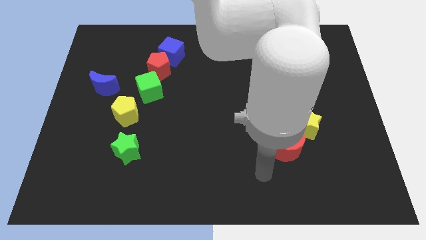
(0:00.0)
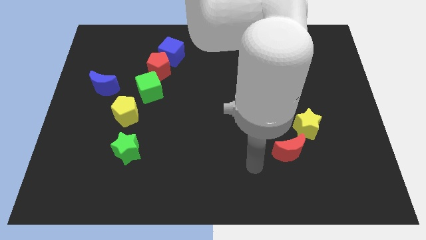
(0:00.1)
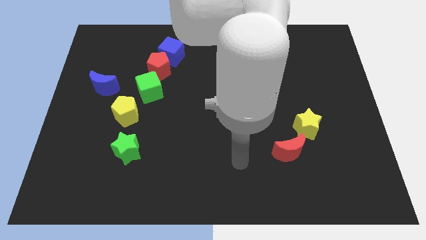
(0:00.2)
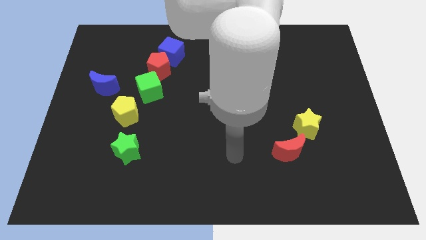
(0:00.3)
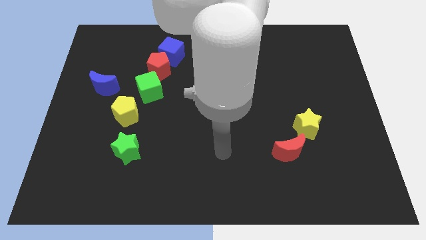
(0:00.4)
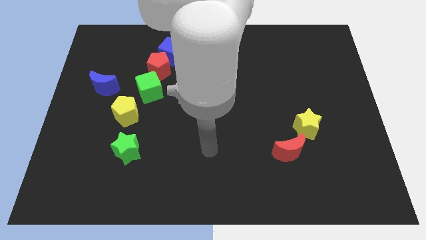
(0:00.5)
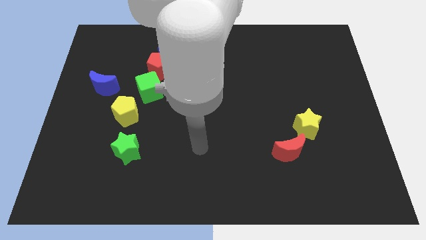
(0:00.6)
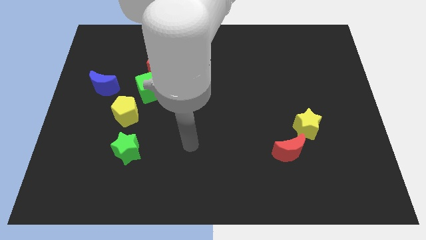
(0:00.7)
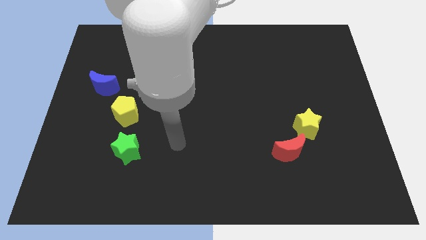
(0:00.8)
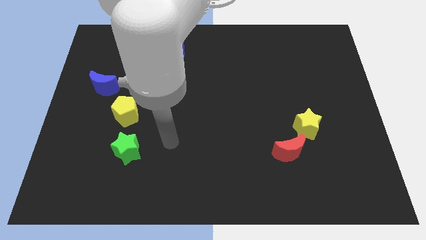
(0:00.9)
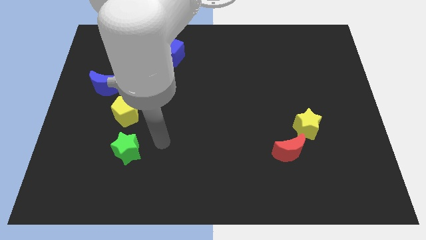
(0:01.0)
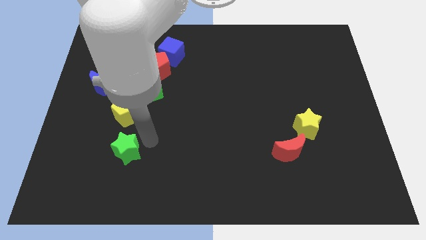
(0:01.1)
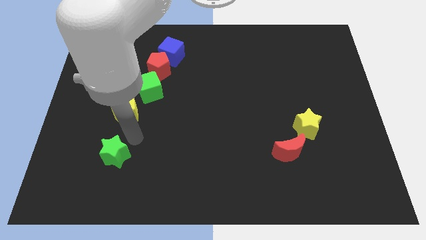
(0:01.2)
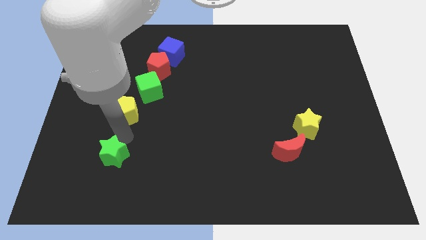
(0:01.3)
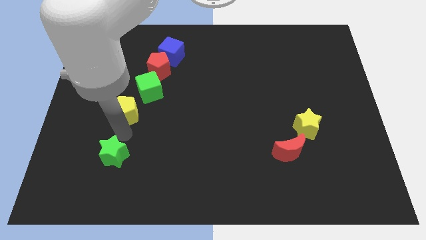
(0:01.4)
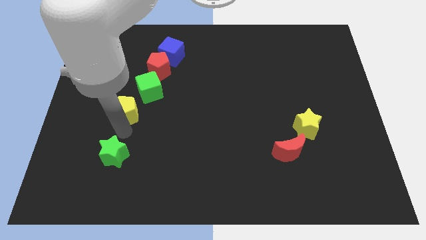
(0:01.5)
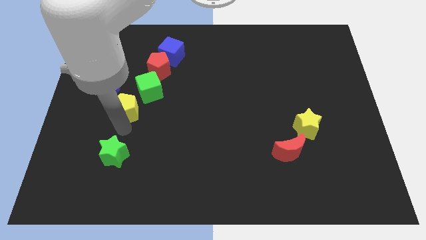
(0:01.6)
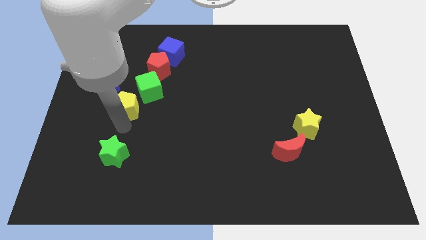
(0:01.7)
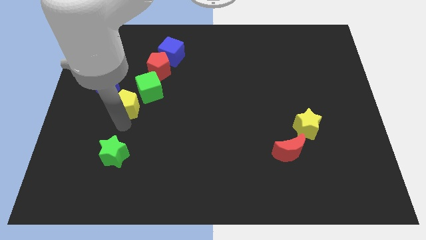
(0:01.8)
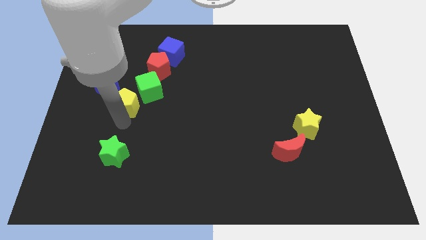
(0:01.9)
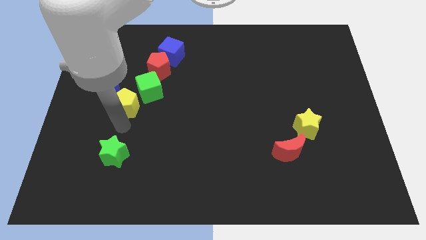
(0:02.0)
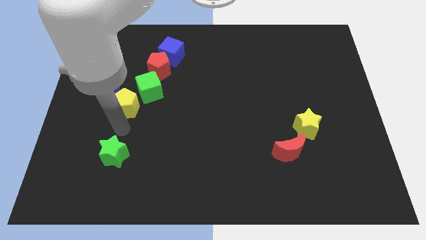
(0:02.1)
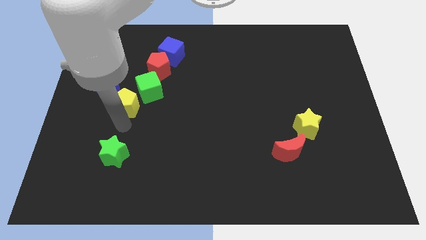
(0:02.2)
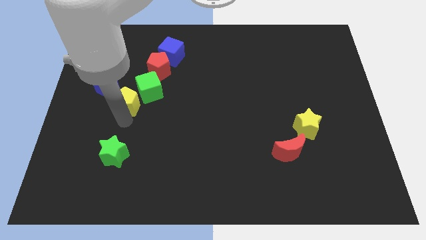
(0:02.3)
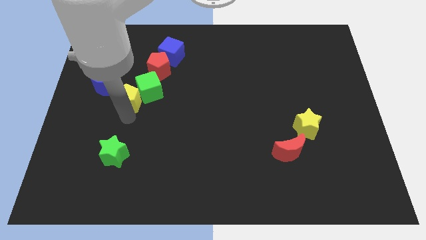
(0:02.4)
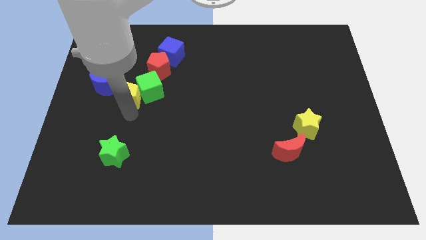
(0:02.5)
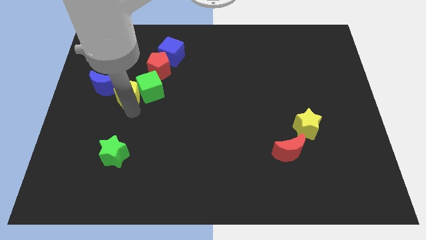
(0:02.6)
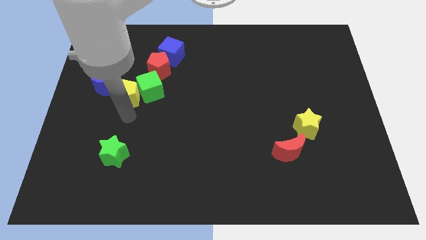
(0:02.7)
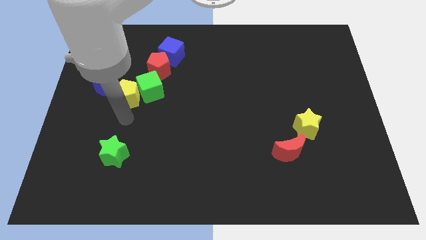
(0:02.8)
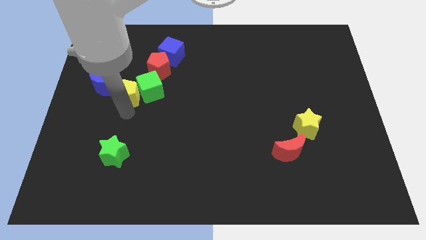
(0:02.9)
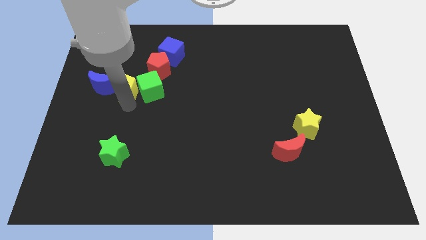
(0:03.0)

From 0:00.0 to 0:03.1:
push the yellow pentagon up a little bit

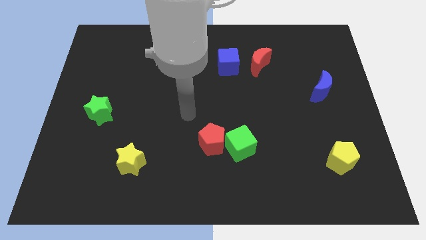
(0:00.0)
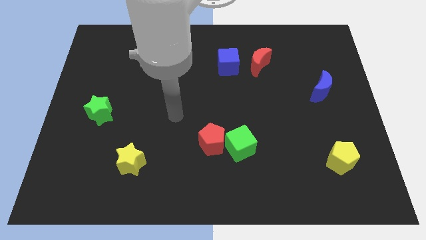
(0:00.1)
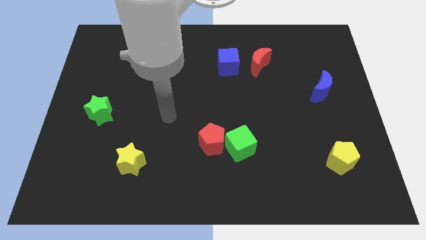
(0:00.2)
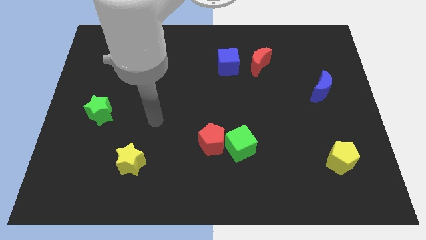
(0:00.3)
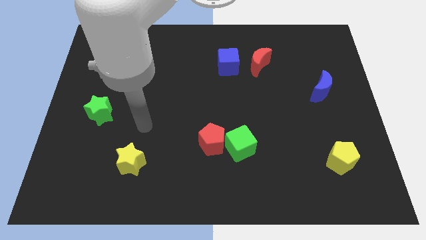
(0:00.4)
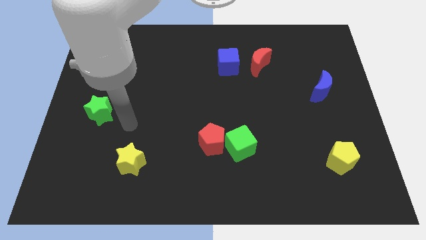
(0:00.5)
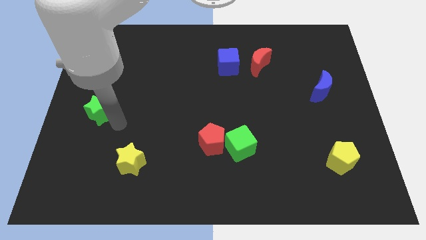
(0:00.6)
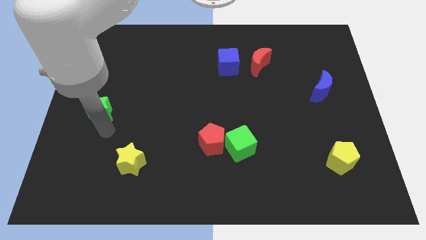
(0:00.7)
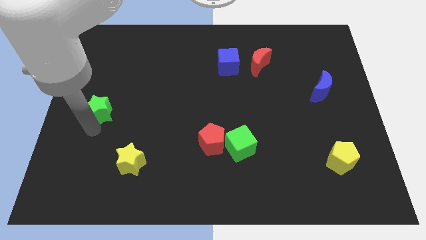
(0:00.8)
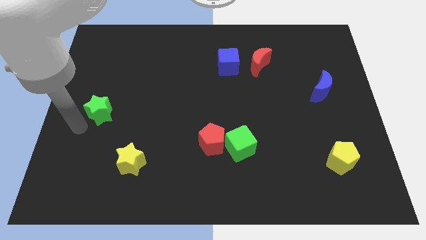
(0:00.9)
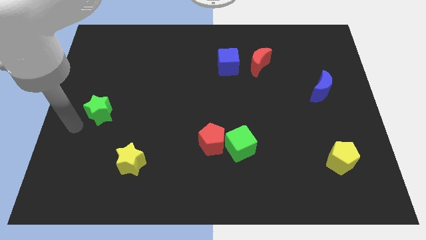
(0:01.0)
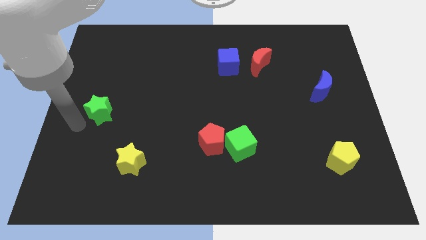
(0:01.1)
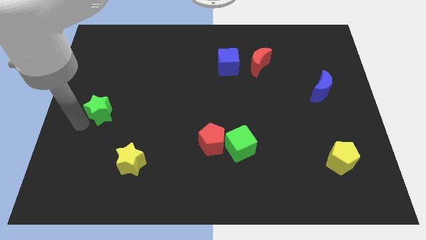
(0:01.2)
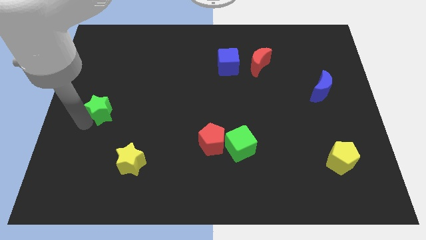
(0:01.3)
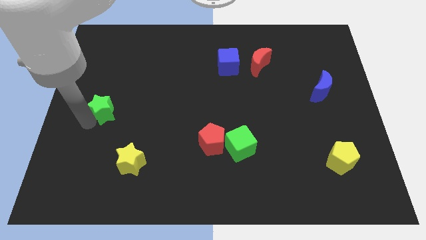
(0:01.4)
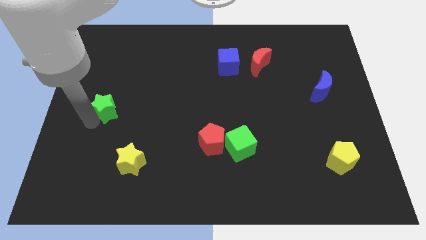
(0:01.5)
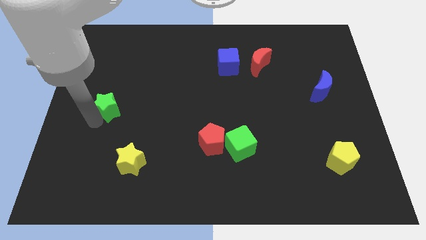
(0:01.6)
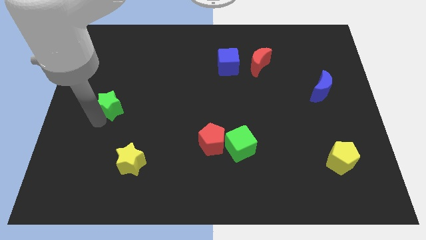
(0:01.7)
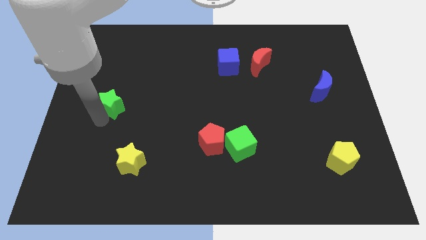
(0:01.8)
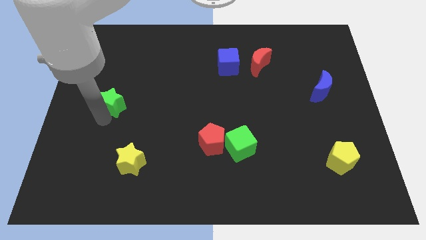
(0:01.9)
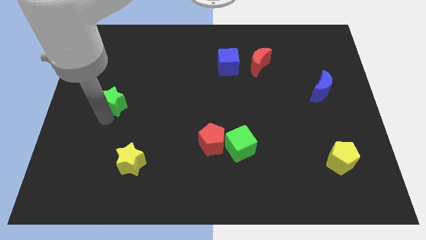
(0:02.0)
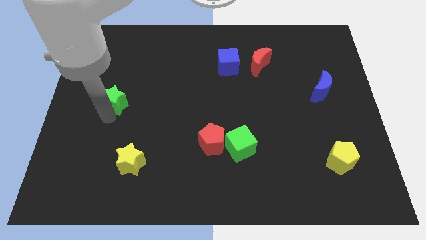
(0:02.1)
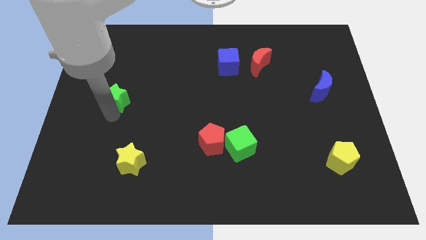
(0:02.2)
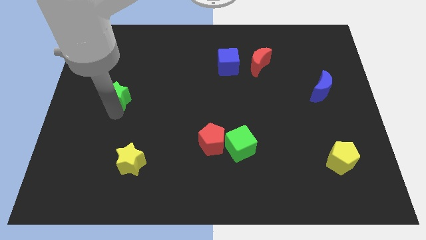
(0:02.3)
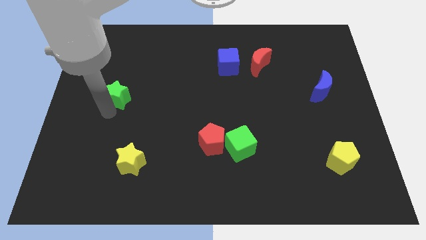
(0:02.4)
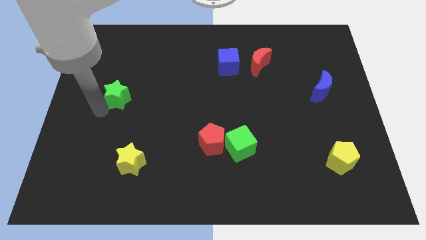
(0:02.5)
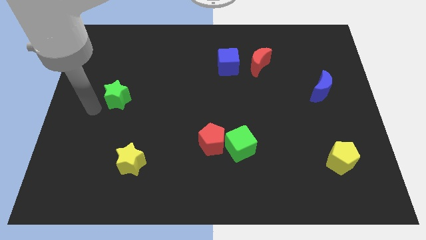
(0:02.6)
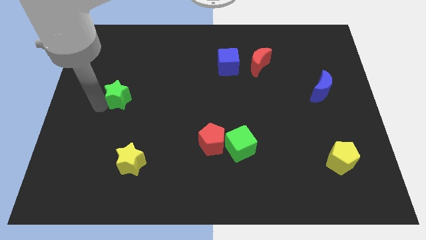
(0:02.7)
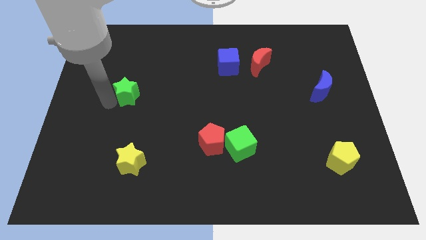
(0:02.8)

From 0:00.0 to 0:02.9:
slightly push the green star up and then right

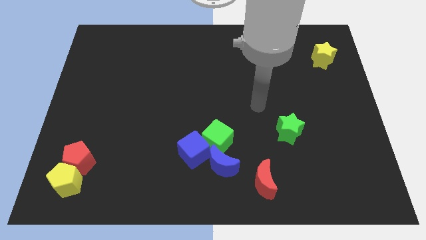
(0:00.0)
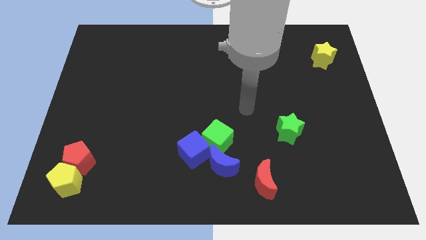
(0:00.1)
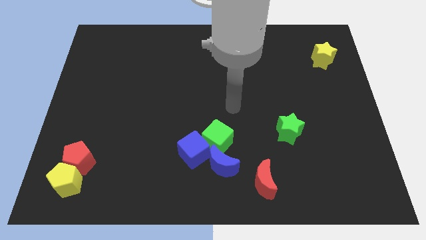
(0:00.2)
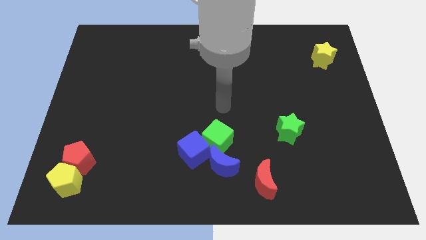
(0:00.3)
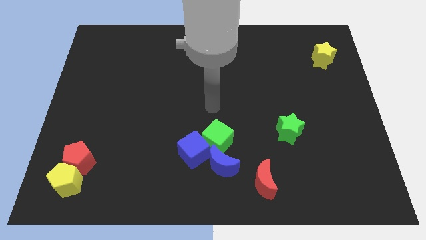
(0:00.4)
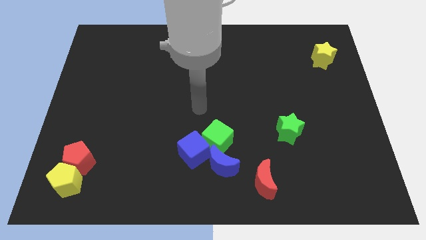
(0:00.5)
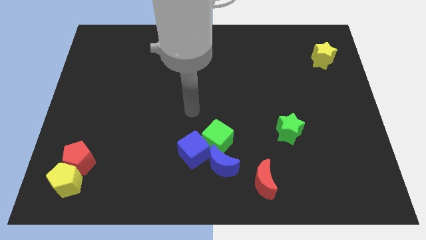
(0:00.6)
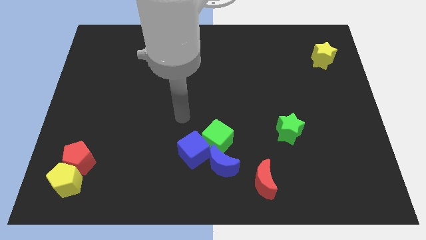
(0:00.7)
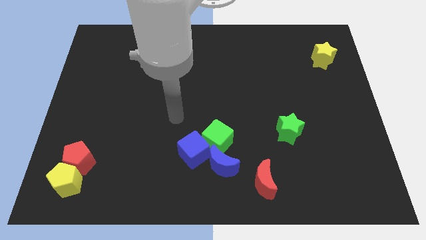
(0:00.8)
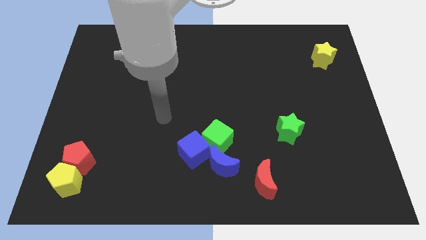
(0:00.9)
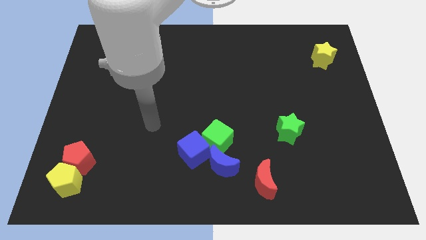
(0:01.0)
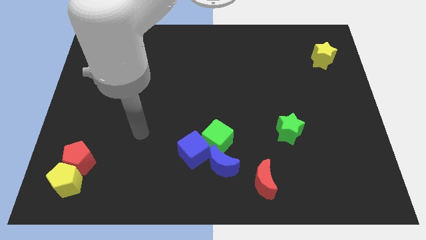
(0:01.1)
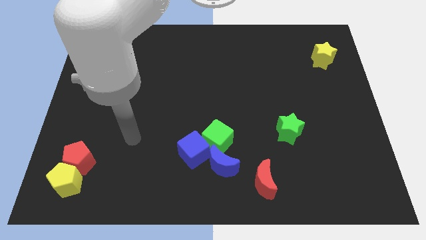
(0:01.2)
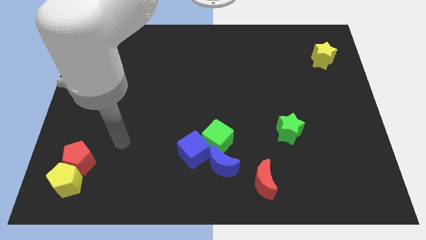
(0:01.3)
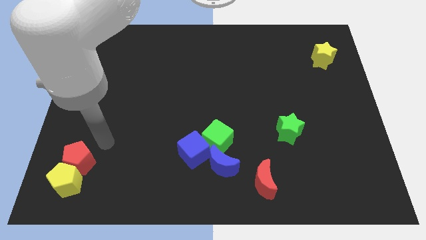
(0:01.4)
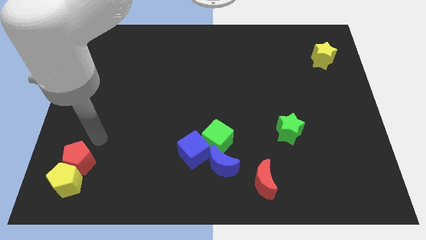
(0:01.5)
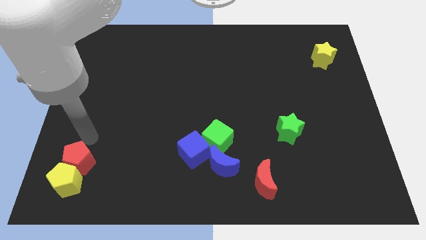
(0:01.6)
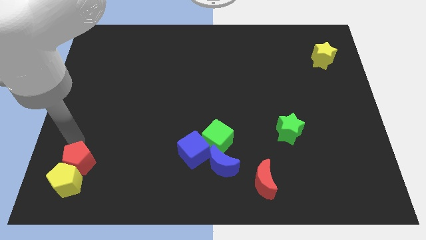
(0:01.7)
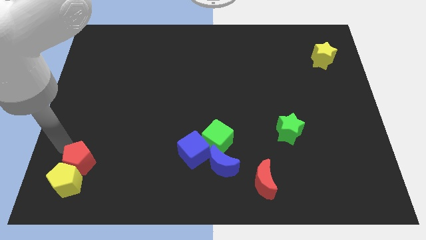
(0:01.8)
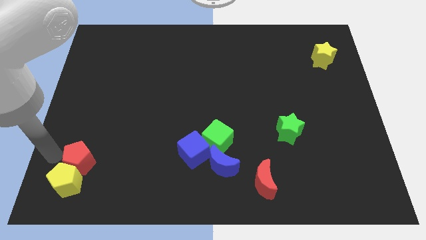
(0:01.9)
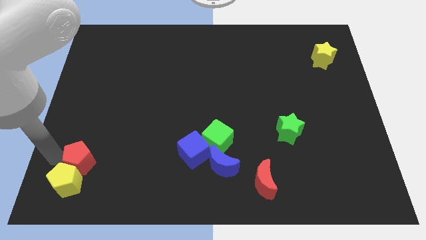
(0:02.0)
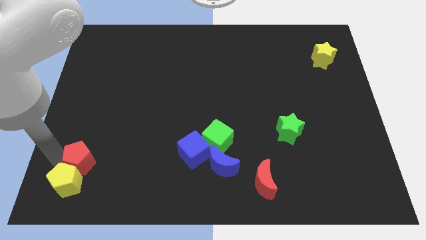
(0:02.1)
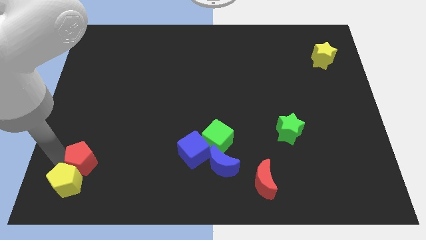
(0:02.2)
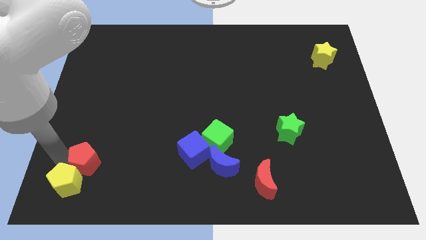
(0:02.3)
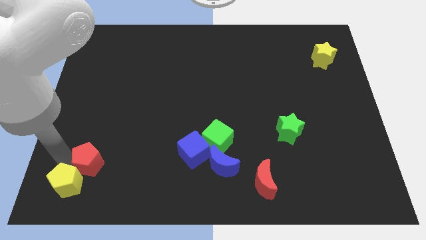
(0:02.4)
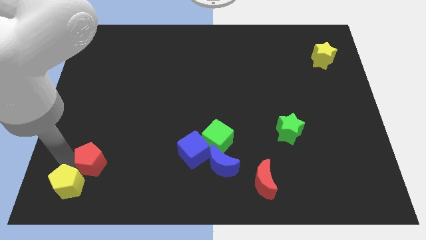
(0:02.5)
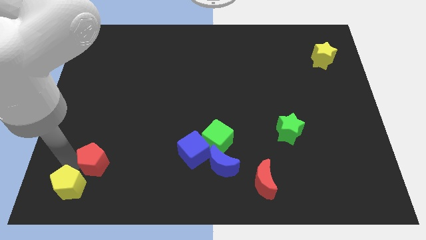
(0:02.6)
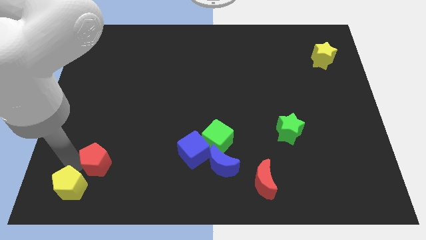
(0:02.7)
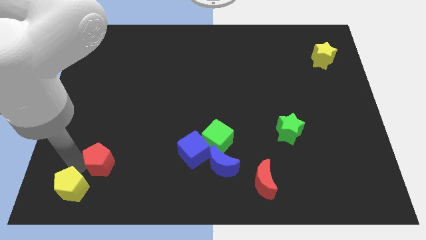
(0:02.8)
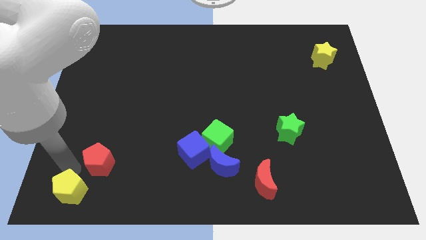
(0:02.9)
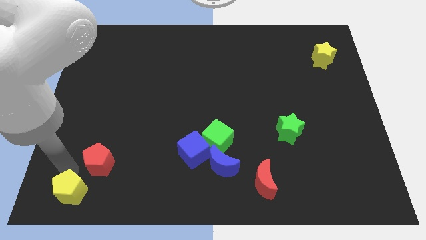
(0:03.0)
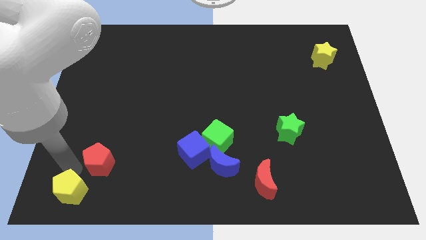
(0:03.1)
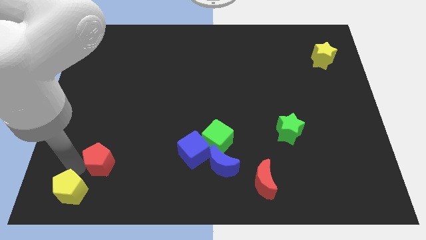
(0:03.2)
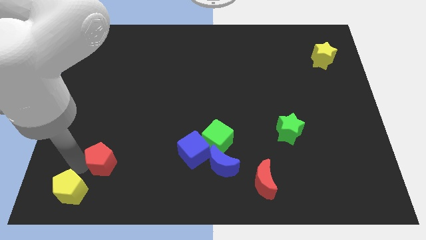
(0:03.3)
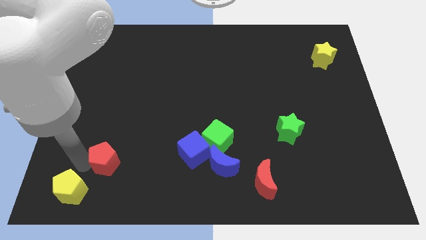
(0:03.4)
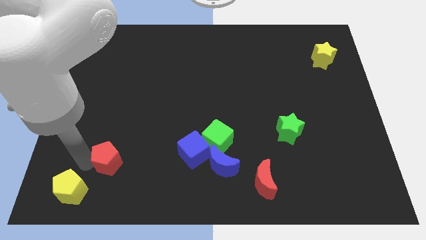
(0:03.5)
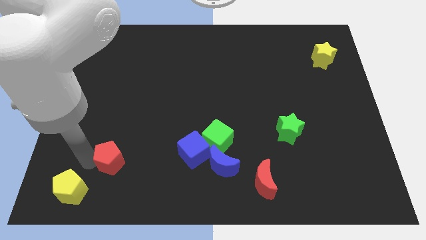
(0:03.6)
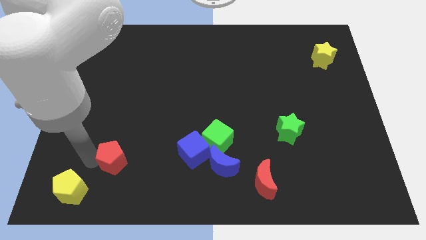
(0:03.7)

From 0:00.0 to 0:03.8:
push the red pentagon right somewhat
